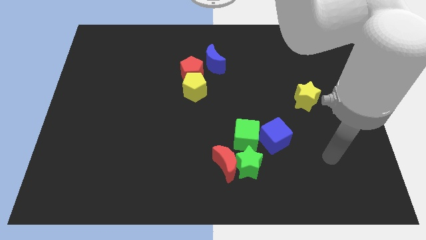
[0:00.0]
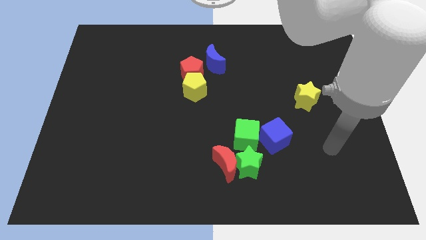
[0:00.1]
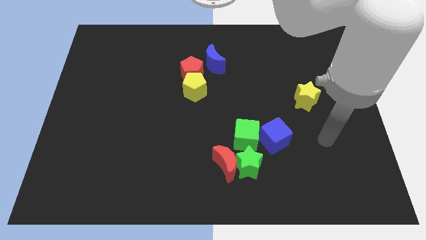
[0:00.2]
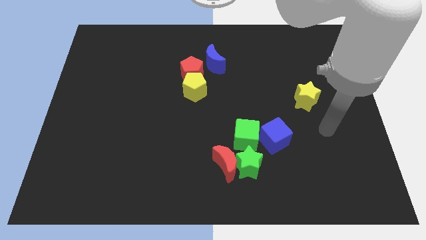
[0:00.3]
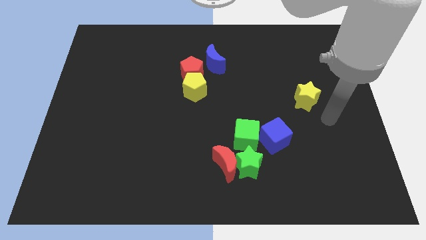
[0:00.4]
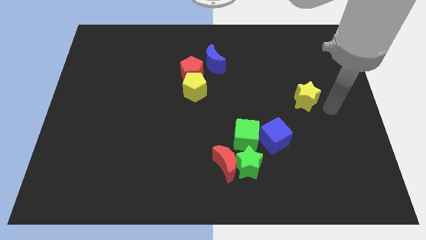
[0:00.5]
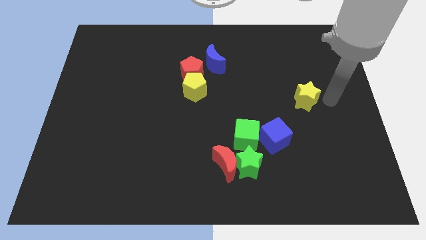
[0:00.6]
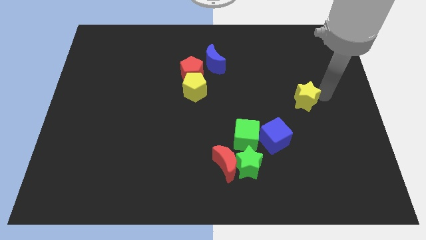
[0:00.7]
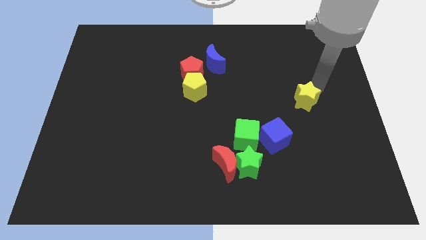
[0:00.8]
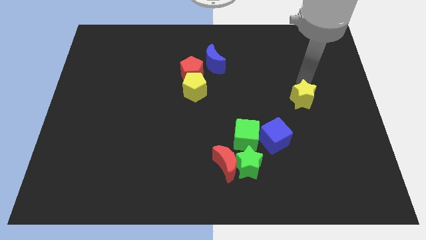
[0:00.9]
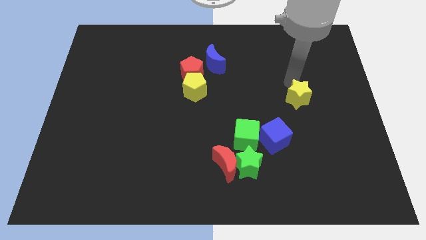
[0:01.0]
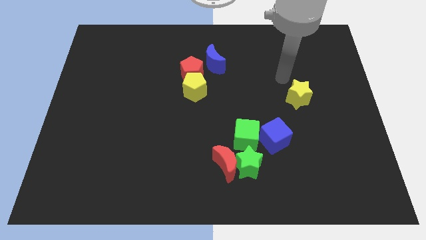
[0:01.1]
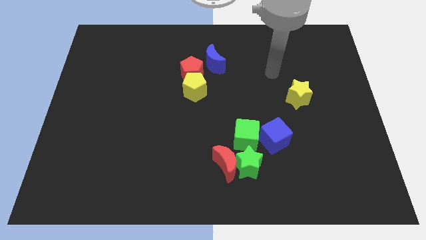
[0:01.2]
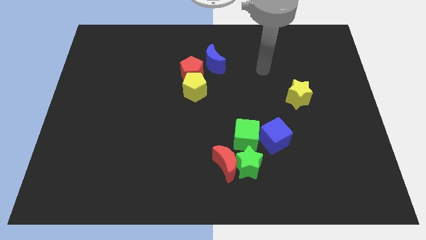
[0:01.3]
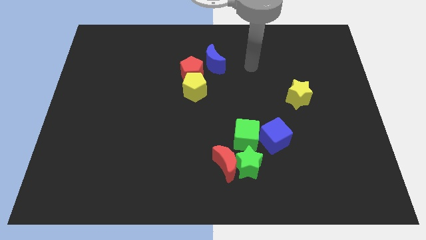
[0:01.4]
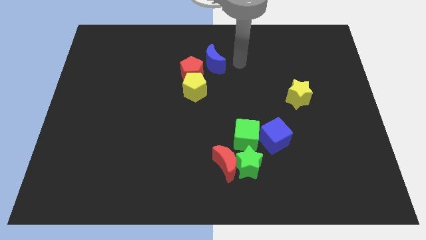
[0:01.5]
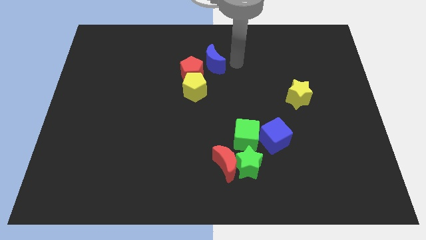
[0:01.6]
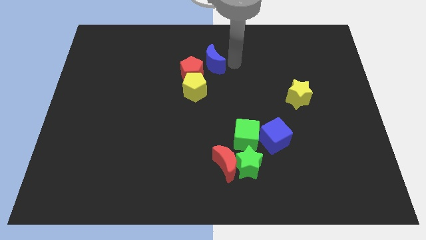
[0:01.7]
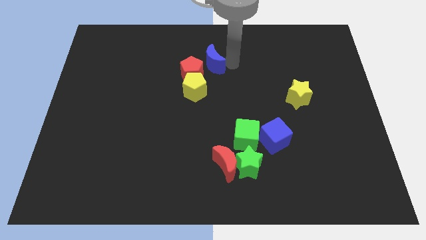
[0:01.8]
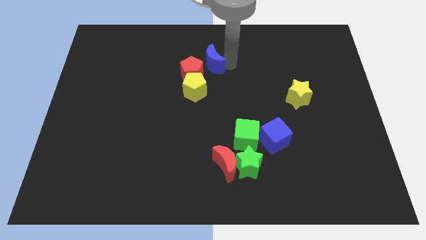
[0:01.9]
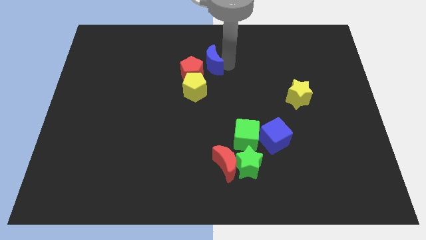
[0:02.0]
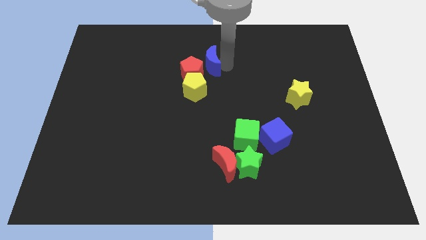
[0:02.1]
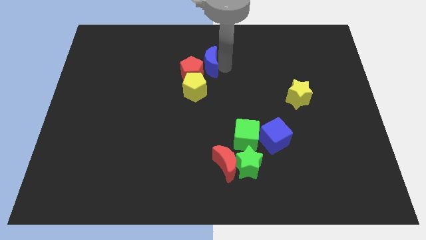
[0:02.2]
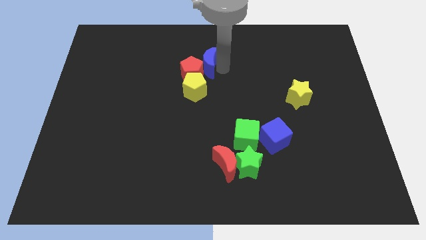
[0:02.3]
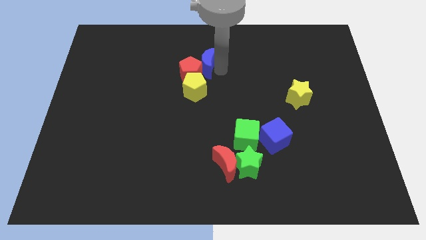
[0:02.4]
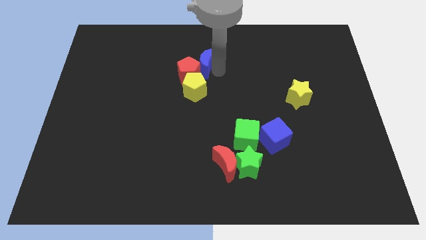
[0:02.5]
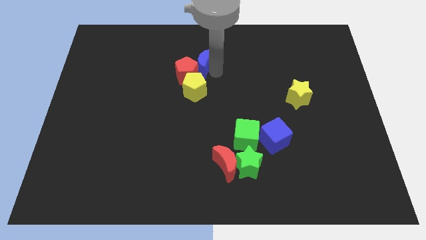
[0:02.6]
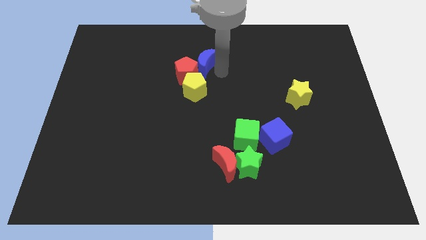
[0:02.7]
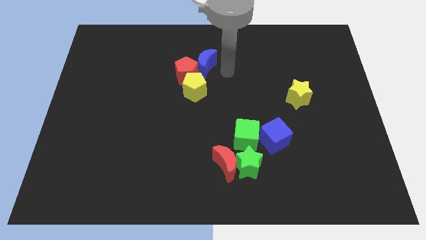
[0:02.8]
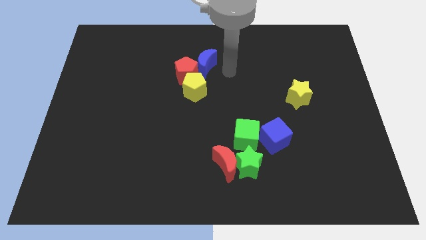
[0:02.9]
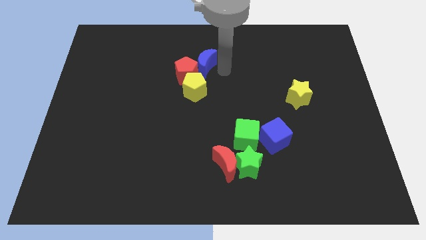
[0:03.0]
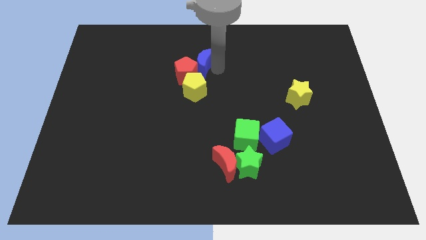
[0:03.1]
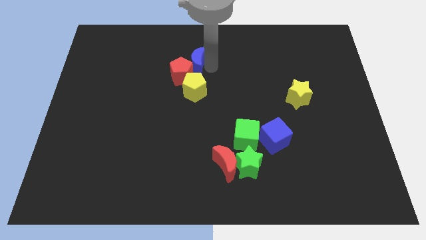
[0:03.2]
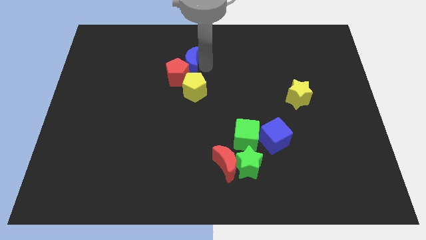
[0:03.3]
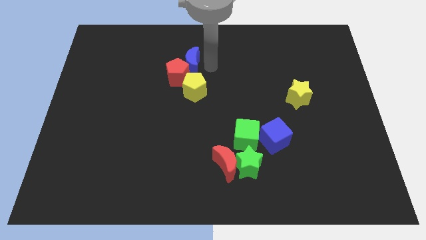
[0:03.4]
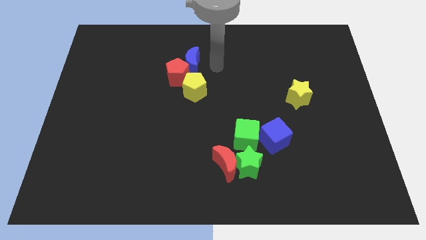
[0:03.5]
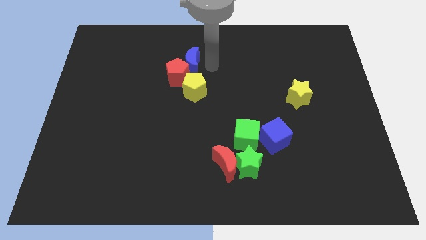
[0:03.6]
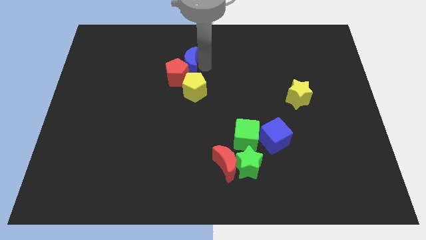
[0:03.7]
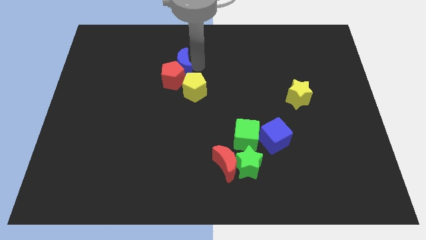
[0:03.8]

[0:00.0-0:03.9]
slightly push the blue moon to the left

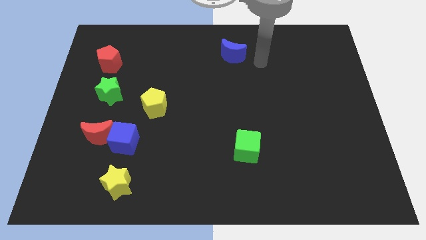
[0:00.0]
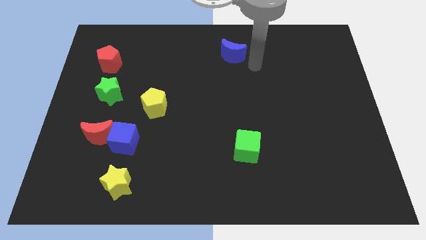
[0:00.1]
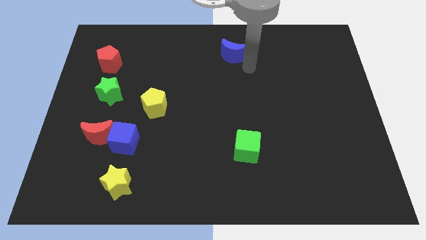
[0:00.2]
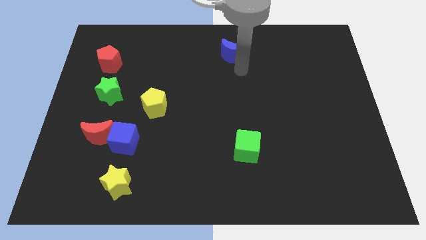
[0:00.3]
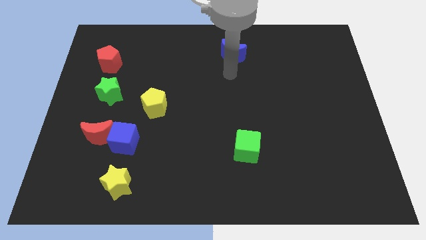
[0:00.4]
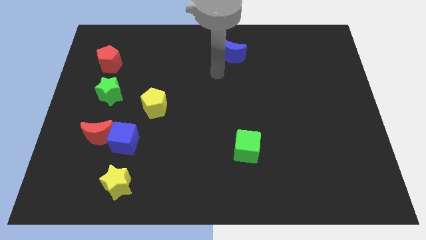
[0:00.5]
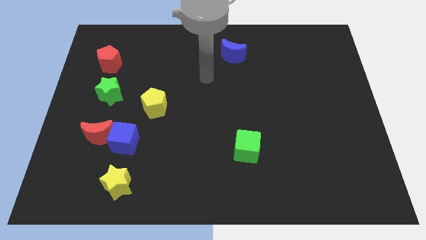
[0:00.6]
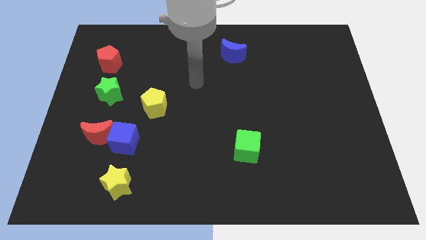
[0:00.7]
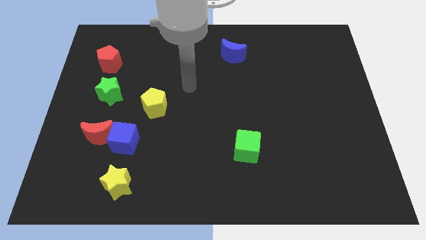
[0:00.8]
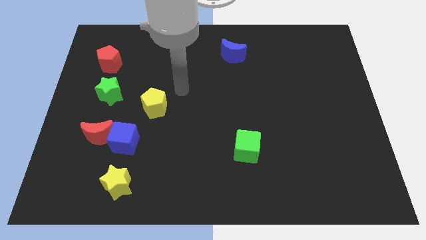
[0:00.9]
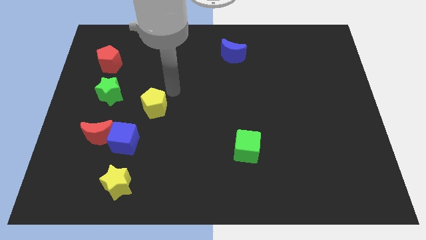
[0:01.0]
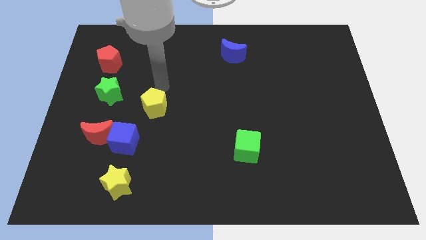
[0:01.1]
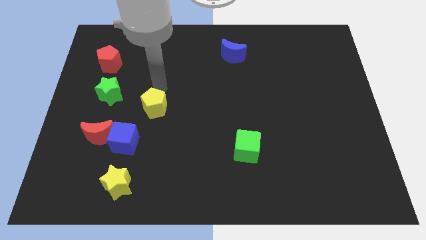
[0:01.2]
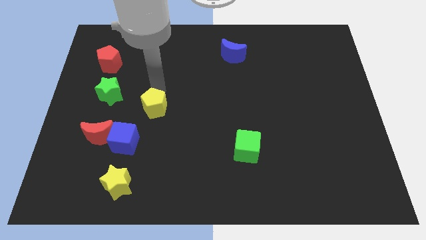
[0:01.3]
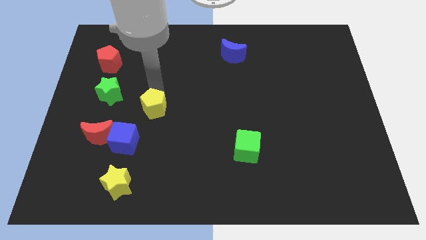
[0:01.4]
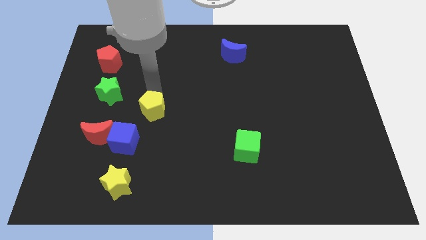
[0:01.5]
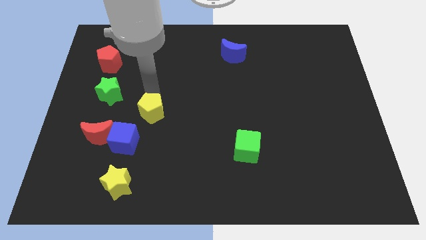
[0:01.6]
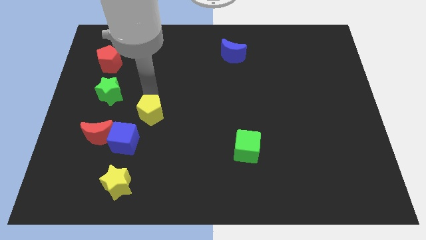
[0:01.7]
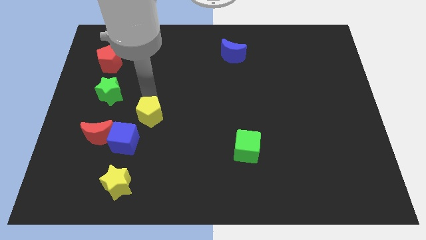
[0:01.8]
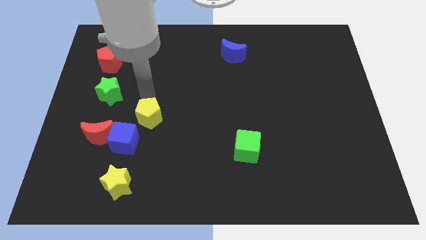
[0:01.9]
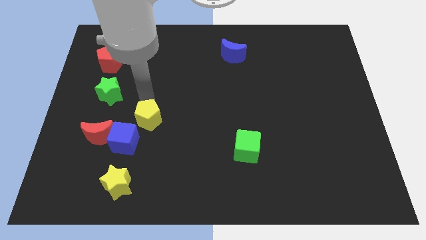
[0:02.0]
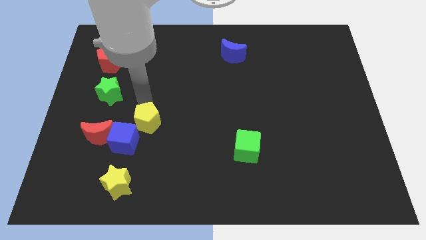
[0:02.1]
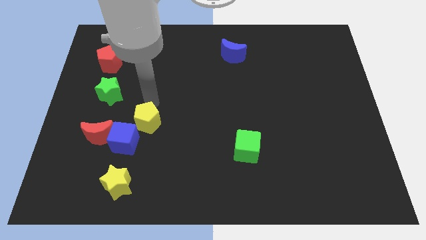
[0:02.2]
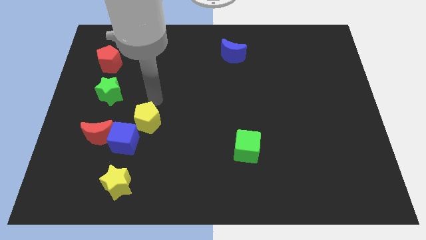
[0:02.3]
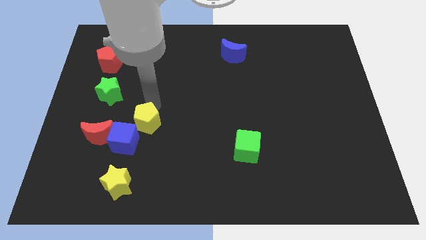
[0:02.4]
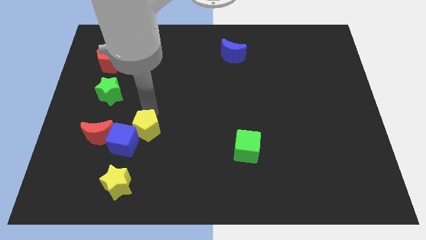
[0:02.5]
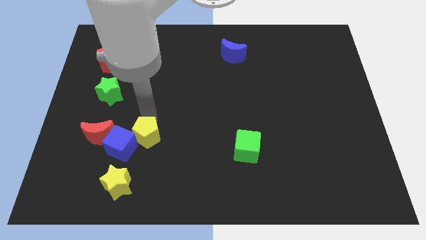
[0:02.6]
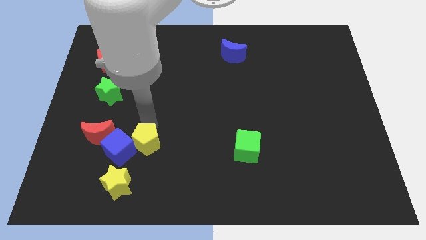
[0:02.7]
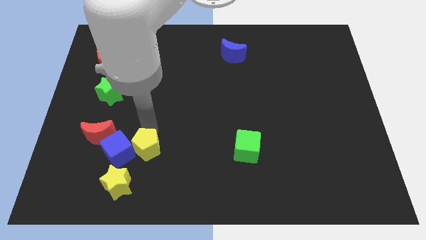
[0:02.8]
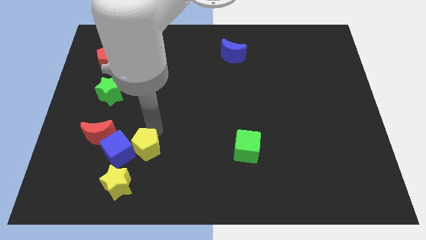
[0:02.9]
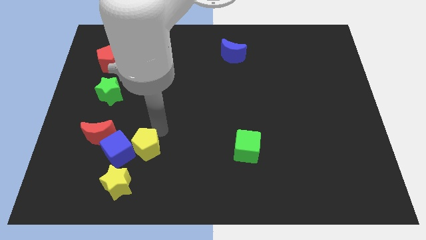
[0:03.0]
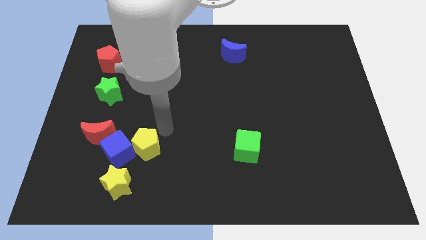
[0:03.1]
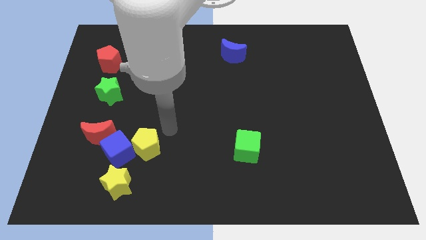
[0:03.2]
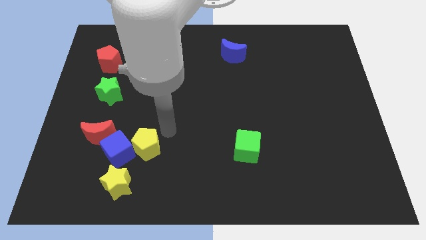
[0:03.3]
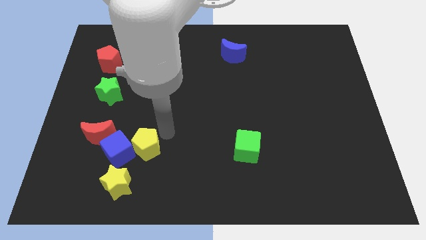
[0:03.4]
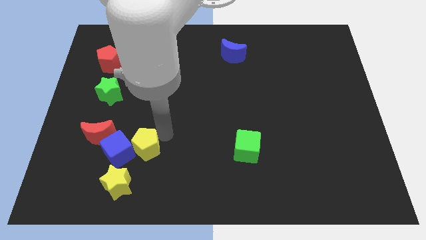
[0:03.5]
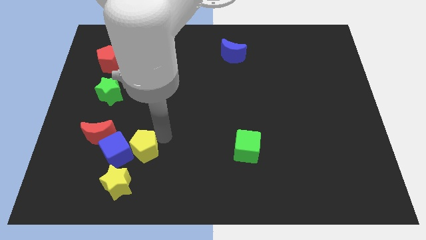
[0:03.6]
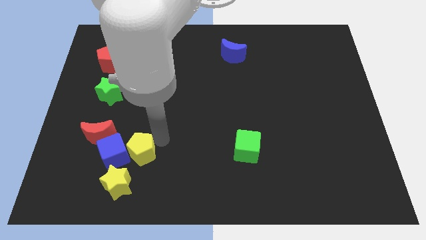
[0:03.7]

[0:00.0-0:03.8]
move the yellow pentagon diagonally downwards and to the left a little bit

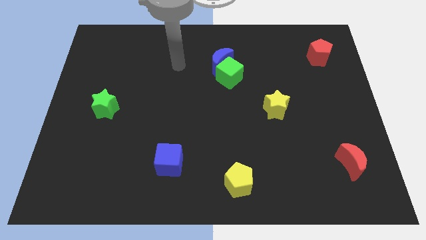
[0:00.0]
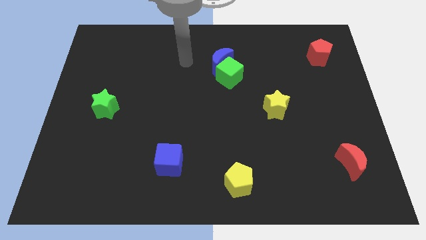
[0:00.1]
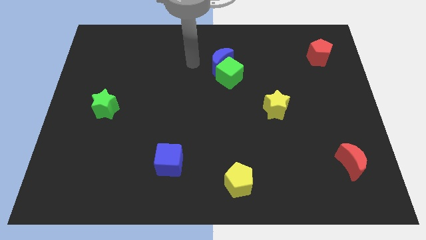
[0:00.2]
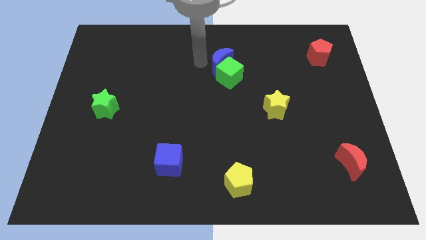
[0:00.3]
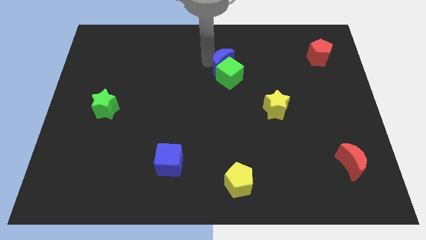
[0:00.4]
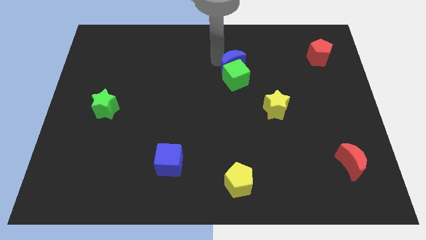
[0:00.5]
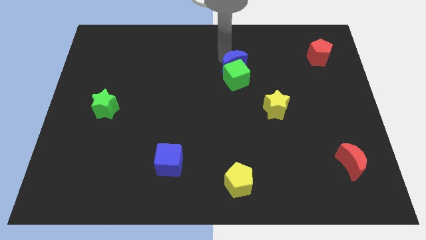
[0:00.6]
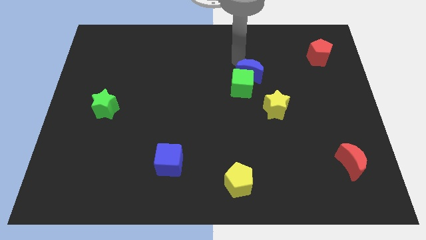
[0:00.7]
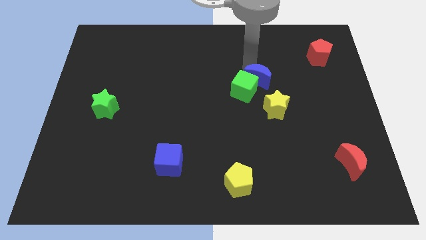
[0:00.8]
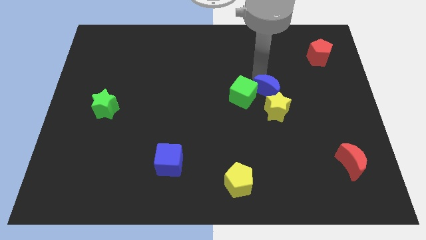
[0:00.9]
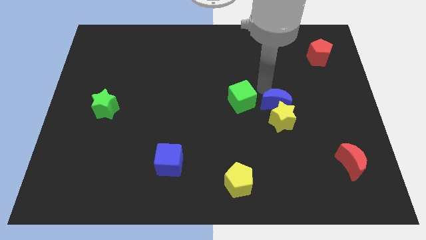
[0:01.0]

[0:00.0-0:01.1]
slide the green cube down a bit
